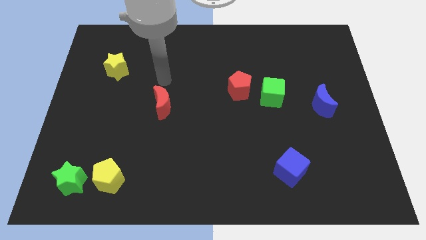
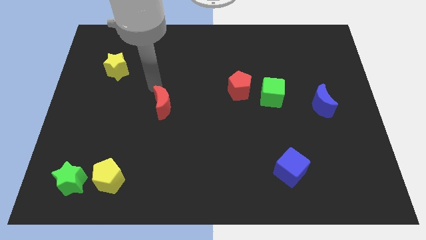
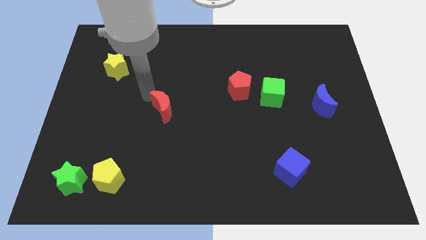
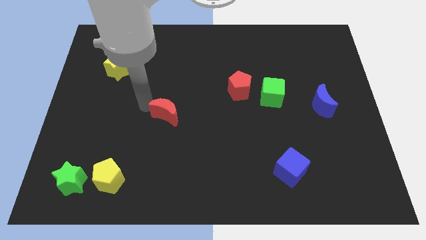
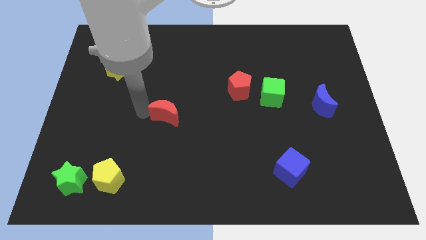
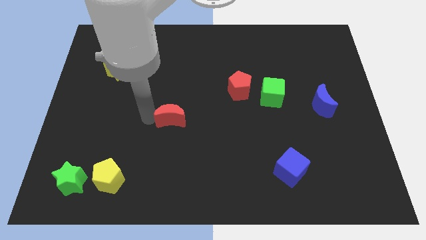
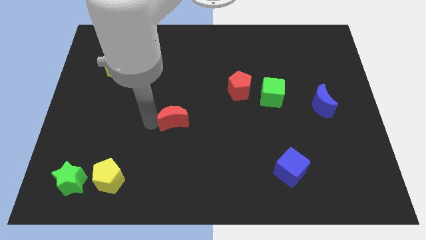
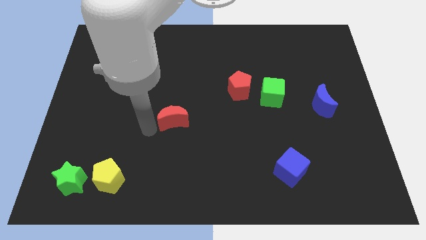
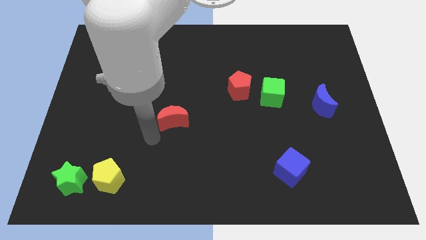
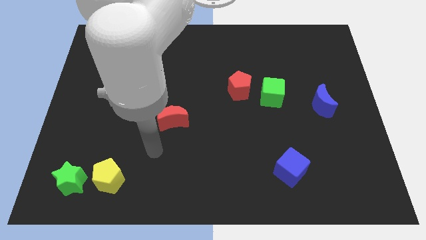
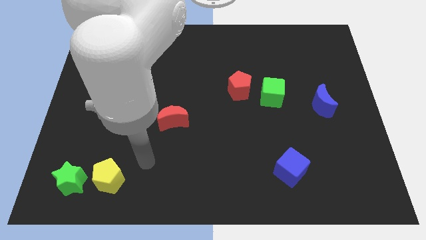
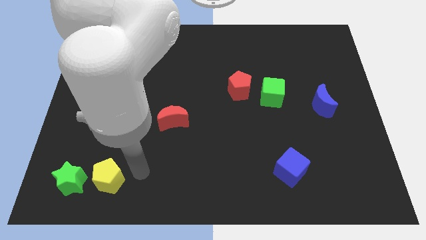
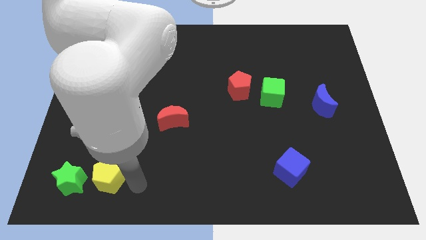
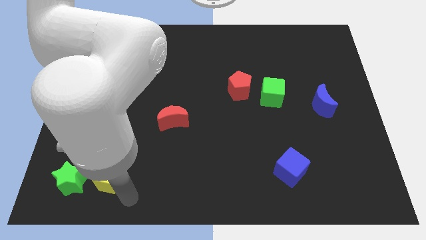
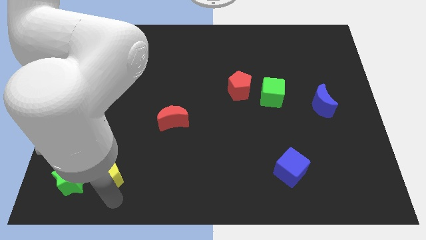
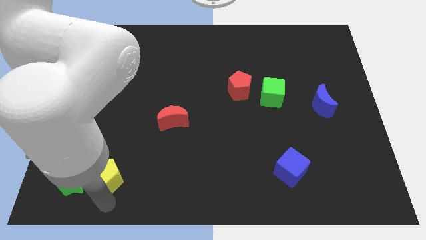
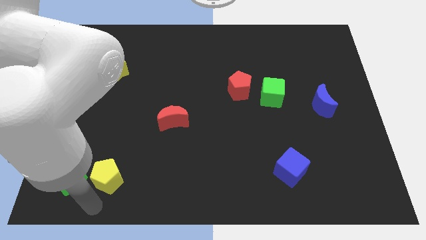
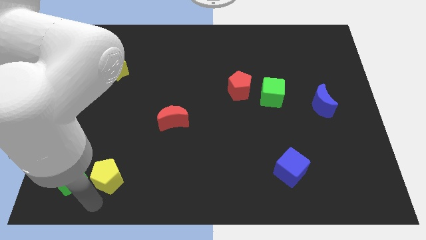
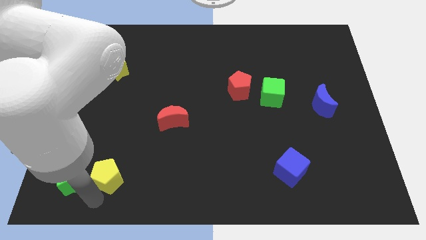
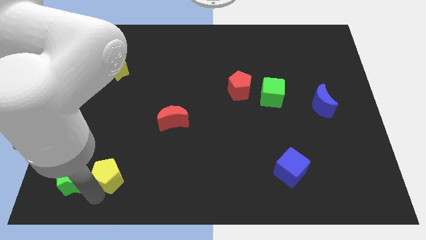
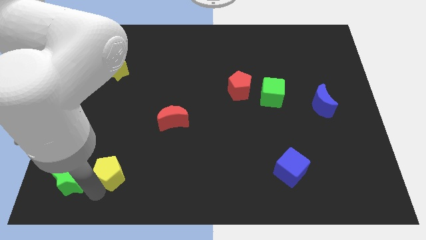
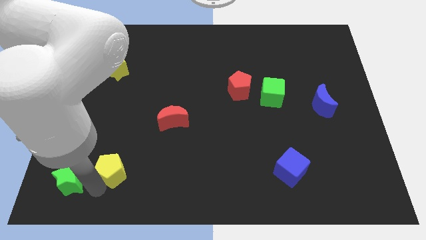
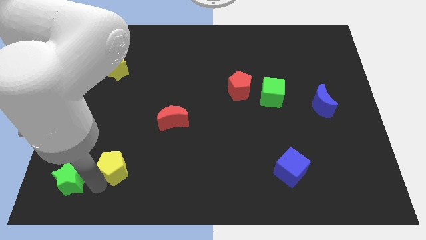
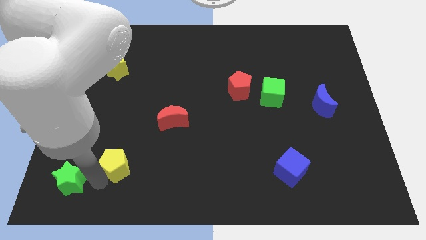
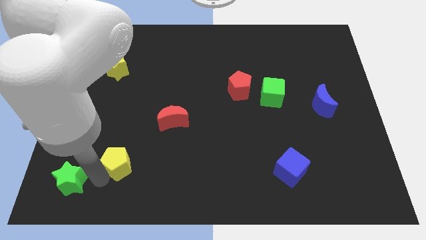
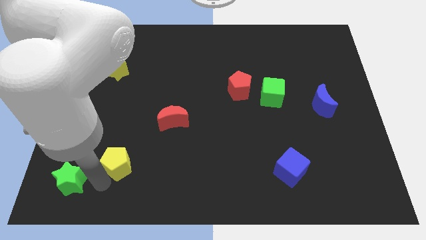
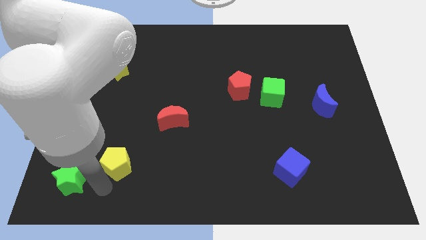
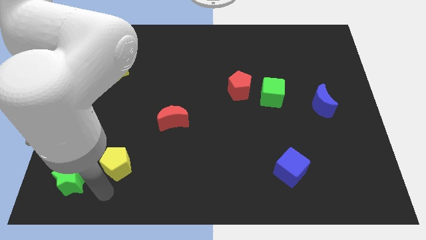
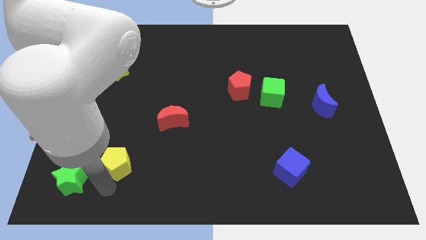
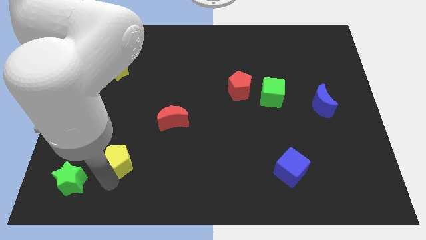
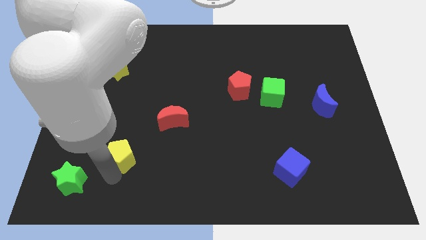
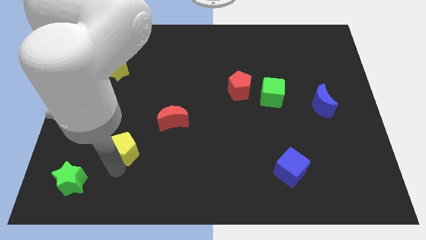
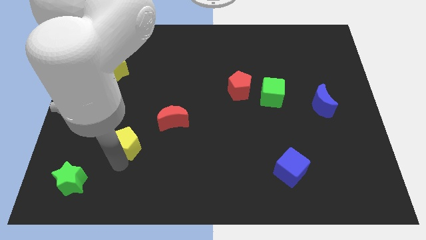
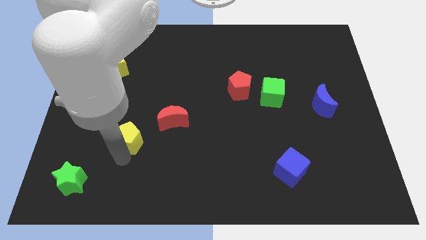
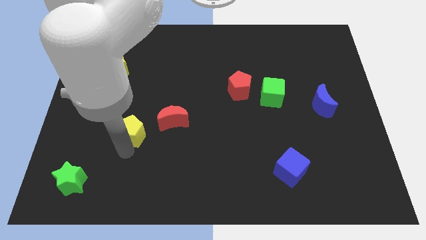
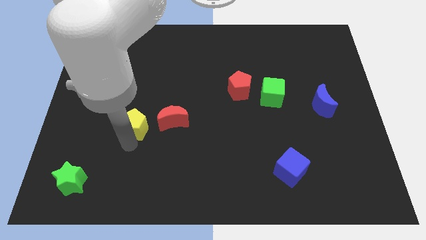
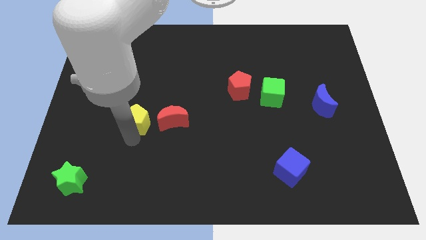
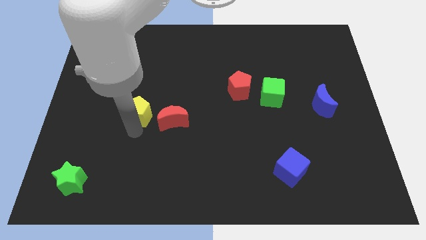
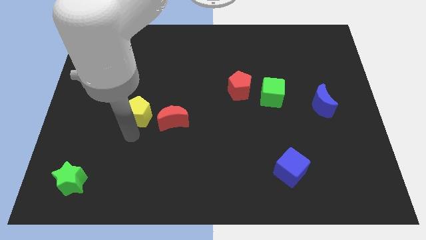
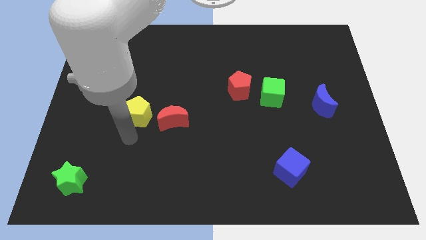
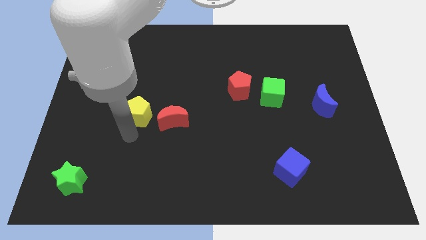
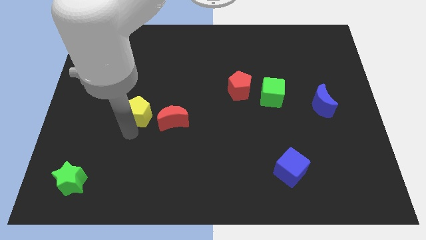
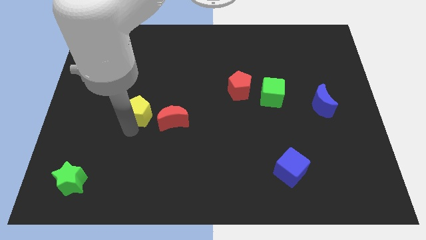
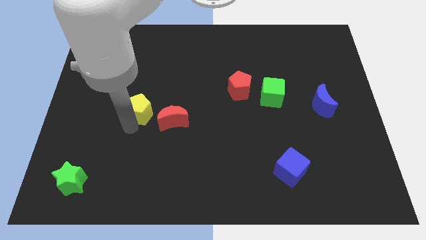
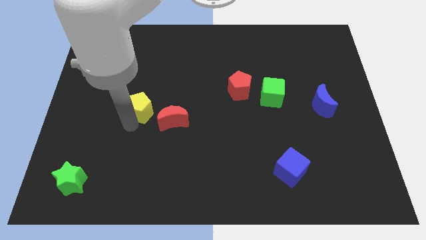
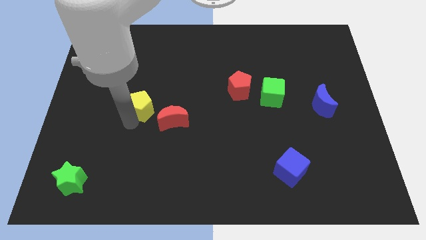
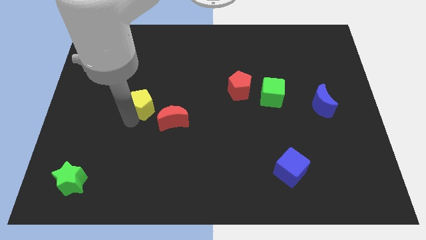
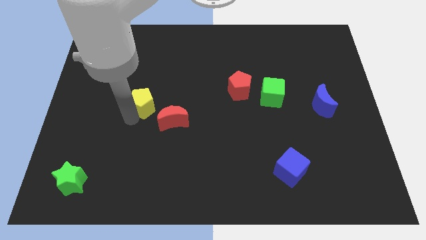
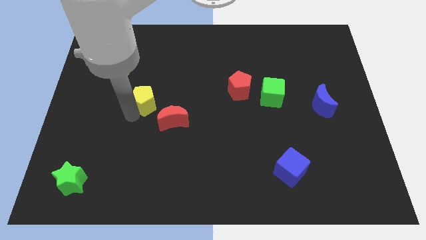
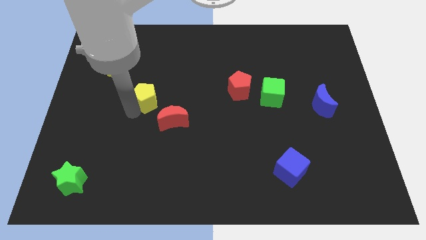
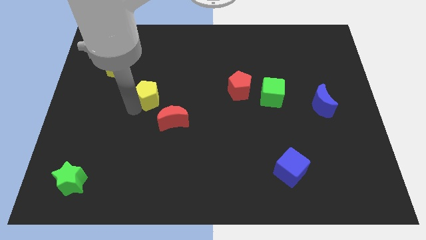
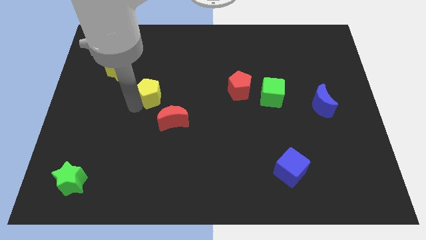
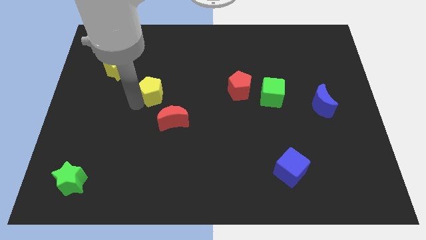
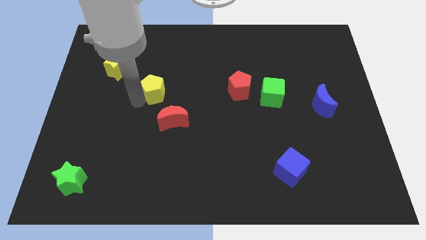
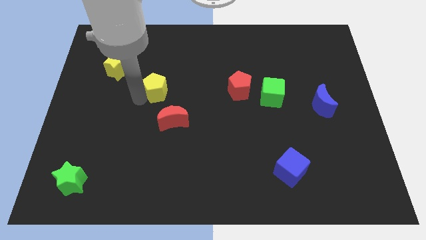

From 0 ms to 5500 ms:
slide the yellow pentagon to the top of the red moon
